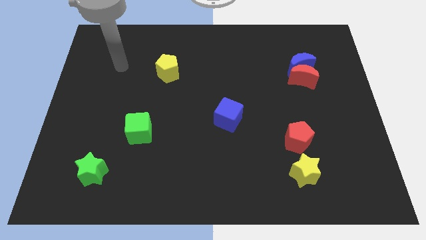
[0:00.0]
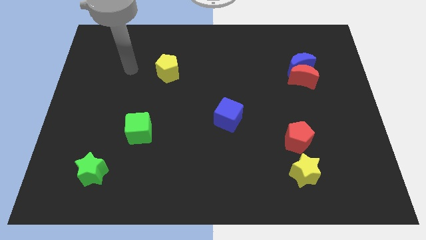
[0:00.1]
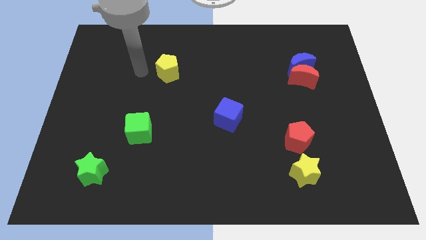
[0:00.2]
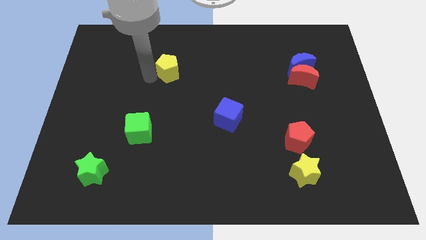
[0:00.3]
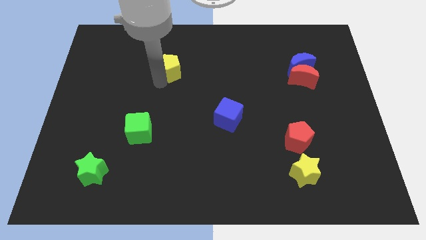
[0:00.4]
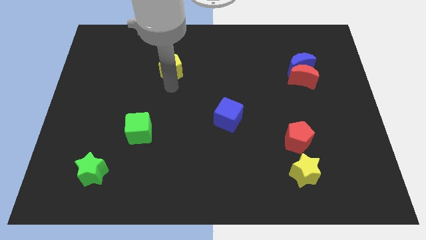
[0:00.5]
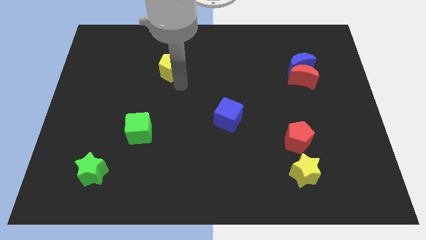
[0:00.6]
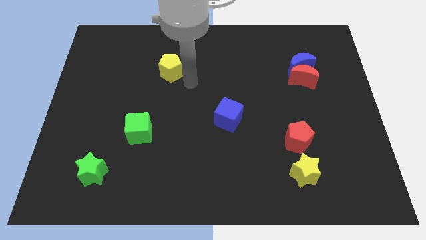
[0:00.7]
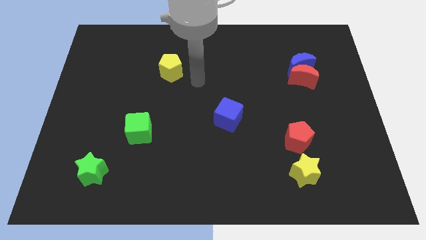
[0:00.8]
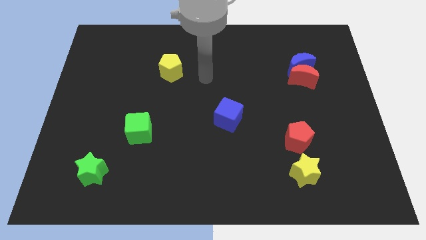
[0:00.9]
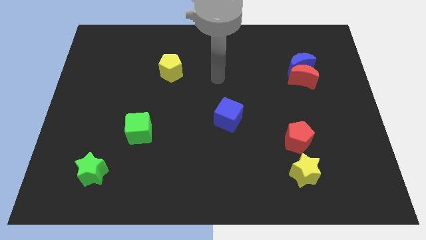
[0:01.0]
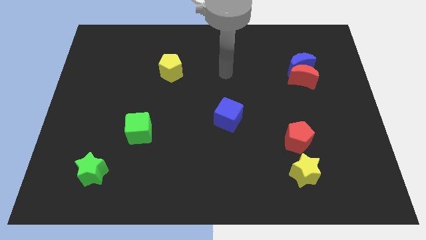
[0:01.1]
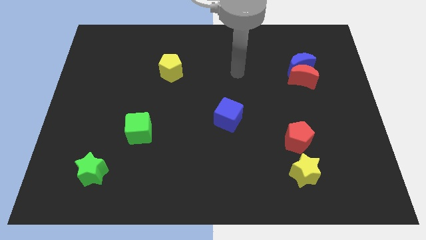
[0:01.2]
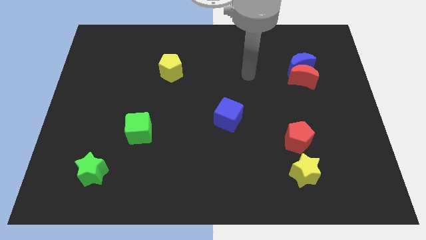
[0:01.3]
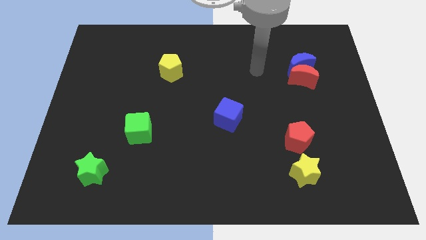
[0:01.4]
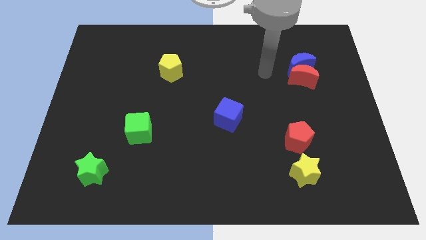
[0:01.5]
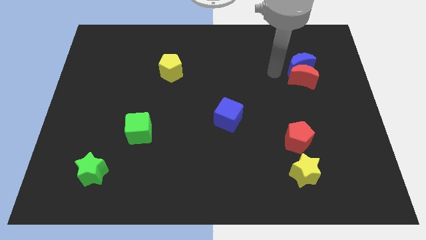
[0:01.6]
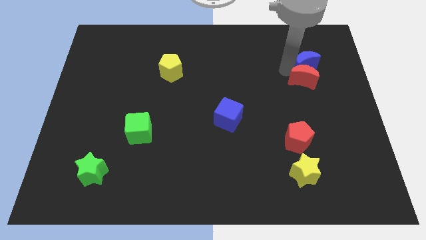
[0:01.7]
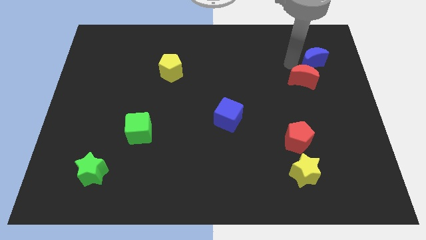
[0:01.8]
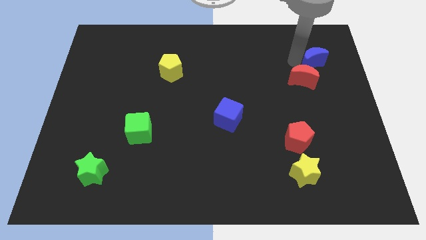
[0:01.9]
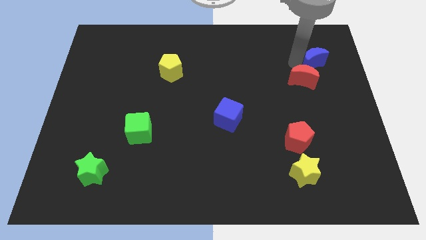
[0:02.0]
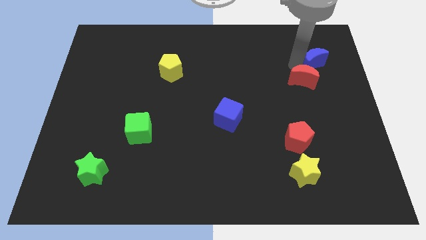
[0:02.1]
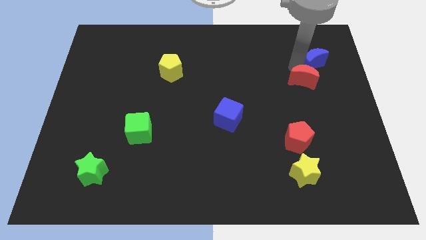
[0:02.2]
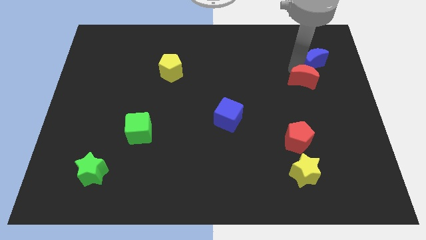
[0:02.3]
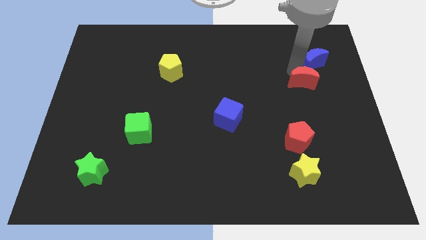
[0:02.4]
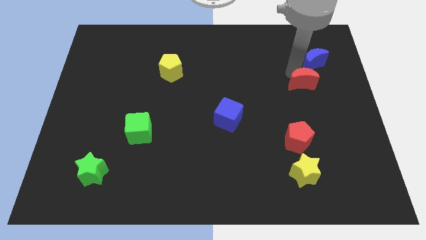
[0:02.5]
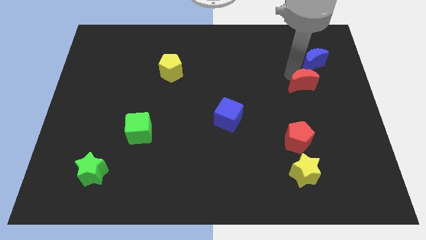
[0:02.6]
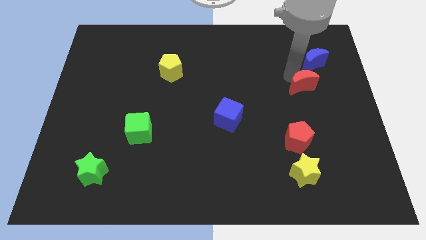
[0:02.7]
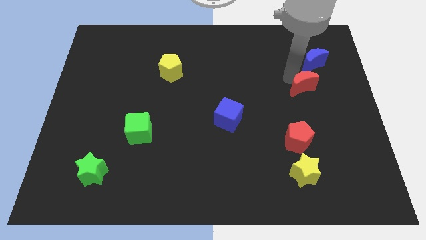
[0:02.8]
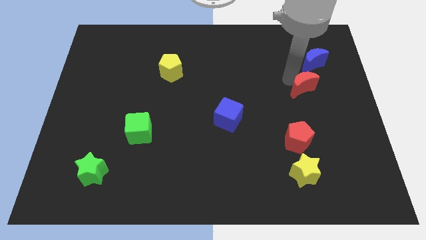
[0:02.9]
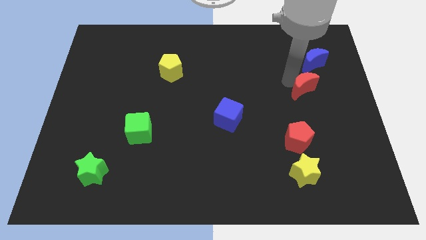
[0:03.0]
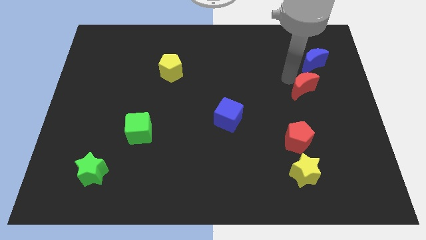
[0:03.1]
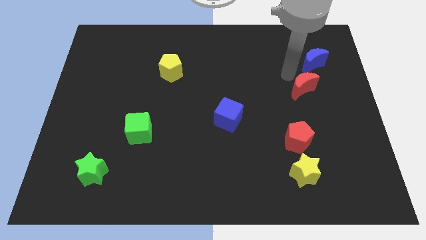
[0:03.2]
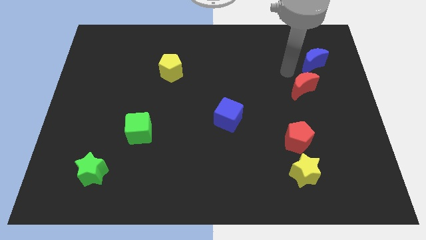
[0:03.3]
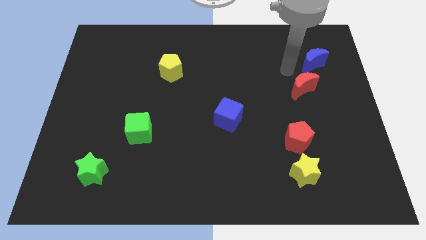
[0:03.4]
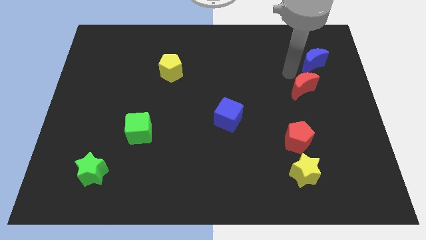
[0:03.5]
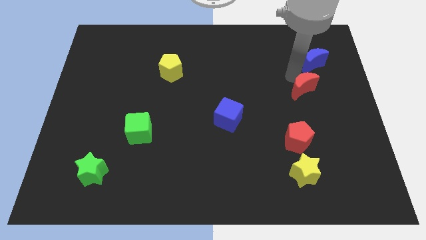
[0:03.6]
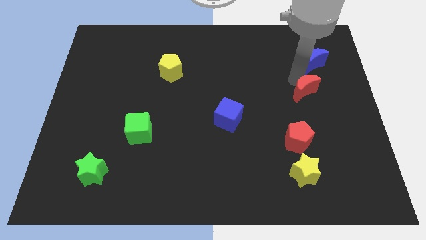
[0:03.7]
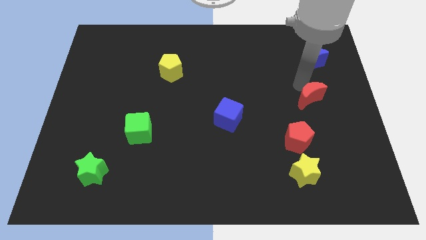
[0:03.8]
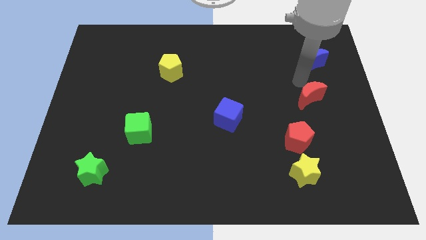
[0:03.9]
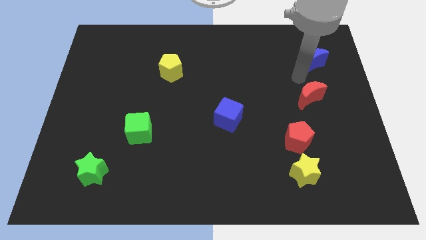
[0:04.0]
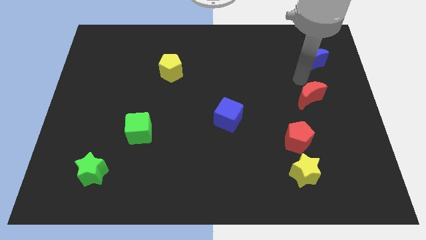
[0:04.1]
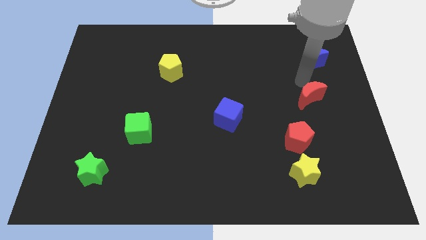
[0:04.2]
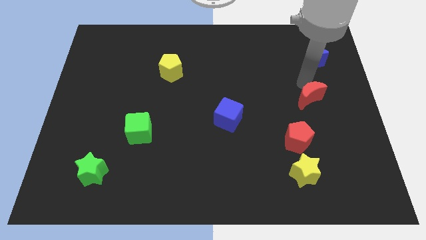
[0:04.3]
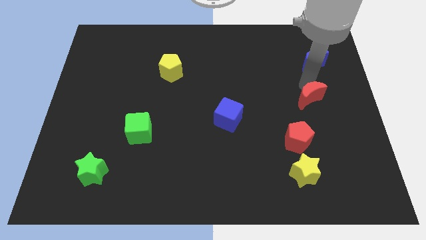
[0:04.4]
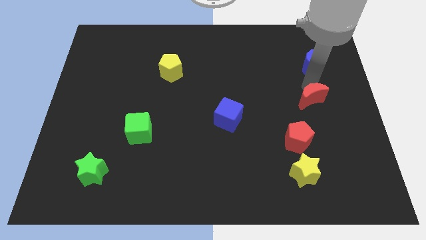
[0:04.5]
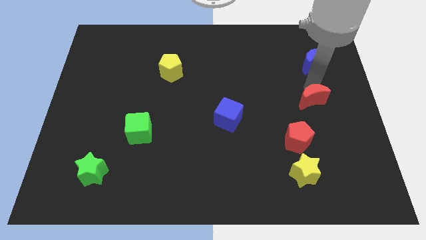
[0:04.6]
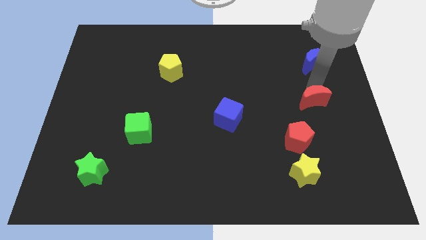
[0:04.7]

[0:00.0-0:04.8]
slide the red moon down a little

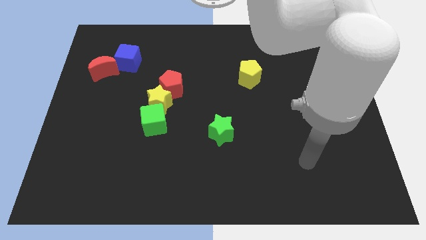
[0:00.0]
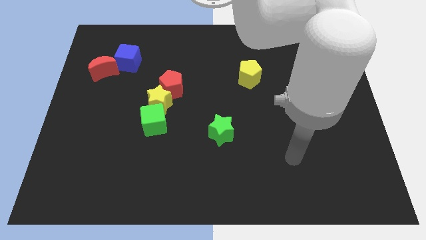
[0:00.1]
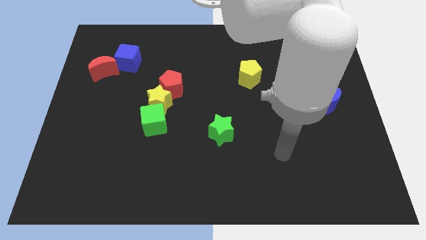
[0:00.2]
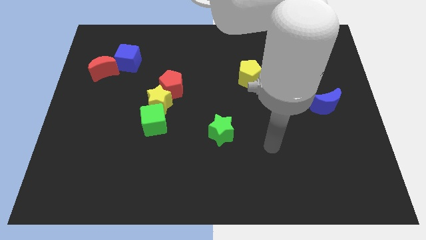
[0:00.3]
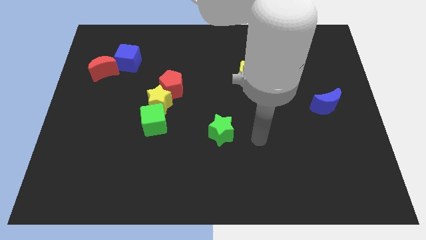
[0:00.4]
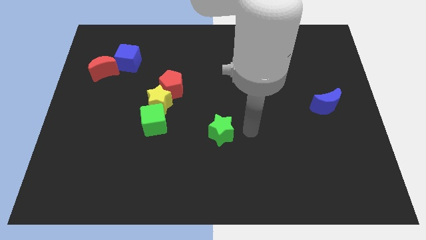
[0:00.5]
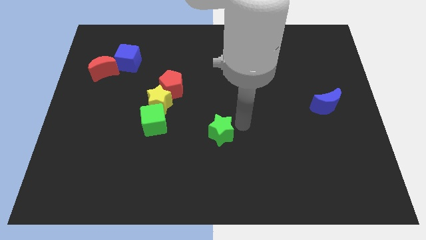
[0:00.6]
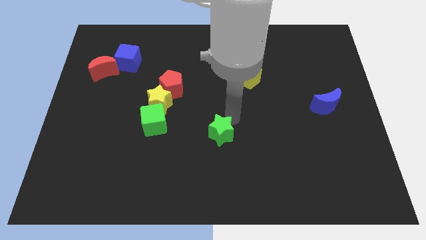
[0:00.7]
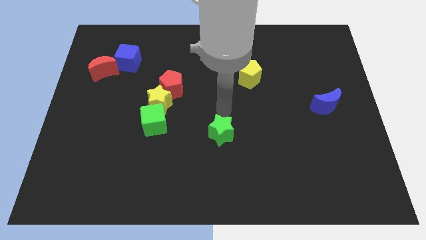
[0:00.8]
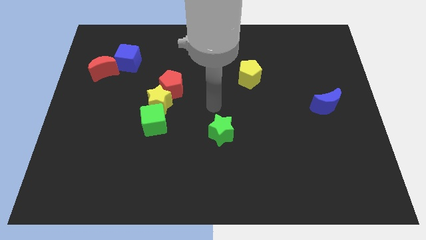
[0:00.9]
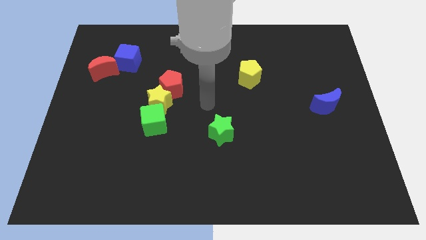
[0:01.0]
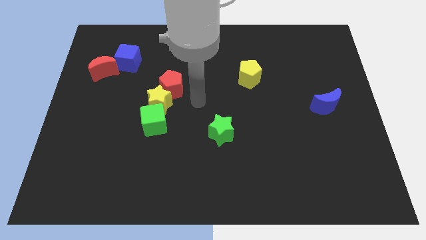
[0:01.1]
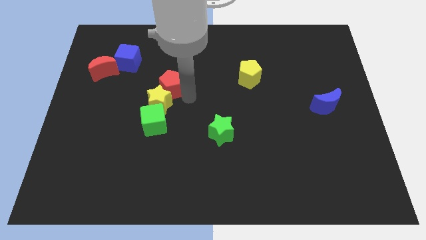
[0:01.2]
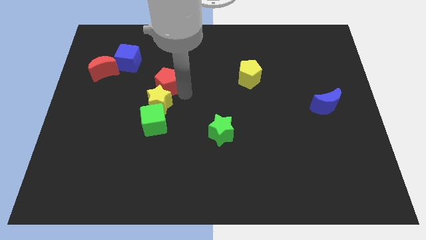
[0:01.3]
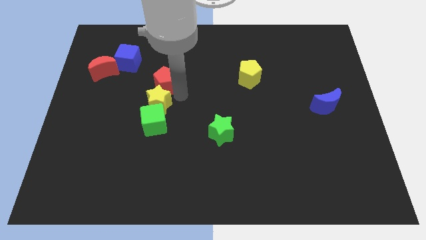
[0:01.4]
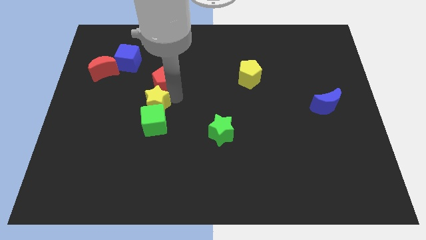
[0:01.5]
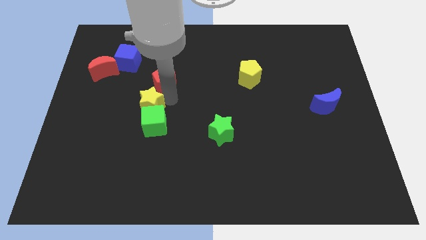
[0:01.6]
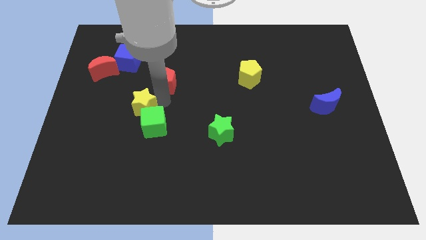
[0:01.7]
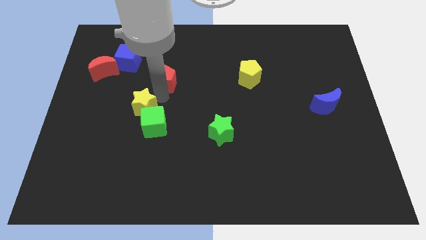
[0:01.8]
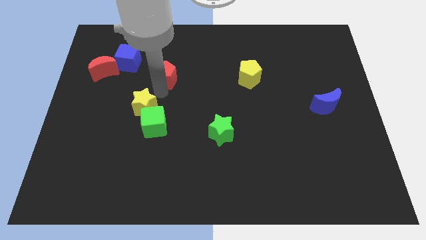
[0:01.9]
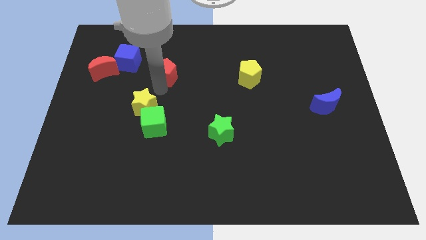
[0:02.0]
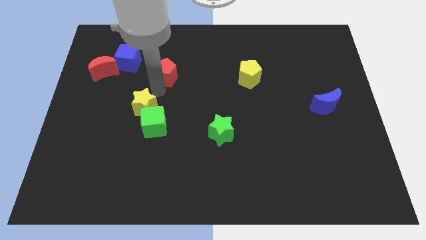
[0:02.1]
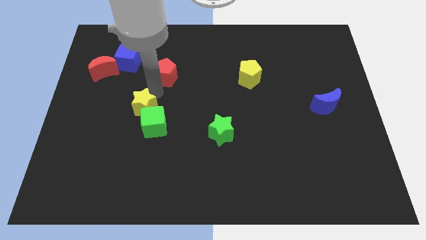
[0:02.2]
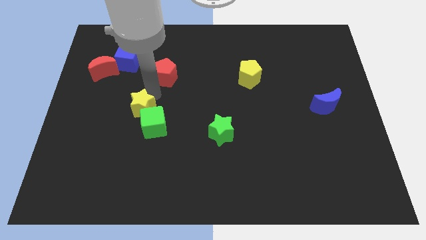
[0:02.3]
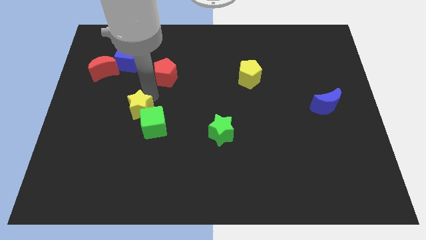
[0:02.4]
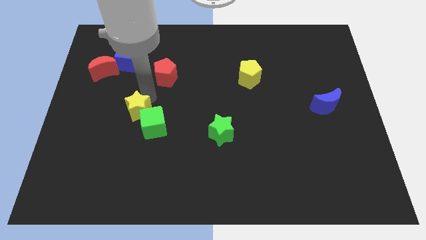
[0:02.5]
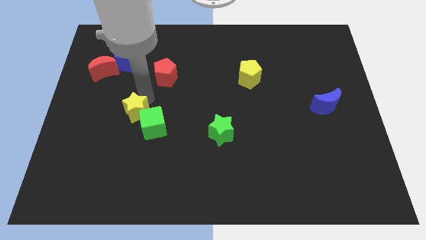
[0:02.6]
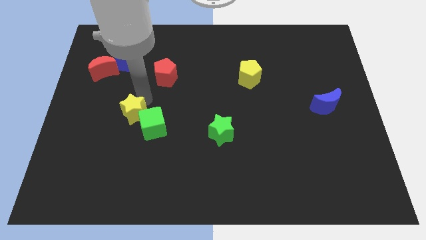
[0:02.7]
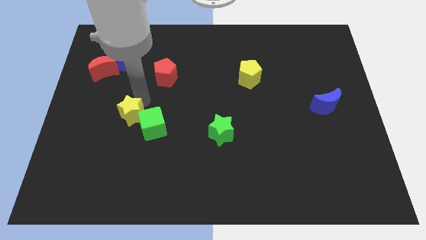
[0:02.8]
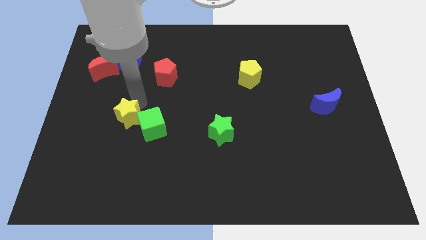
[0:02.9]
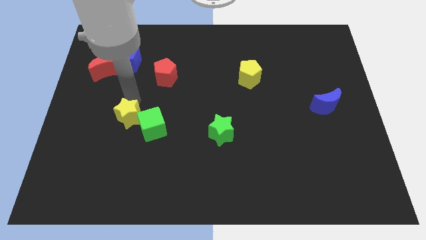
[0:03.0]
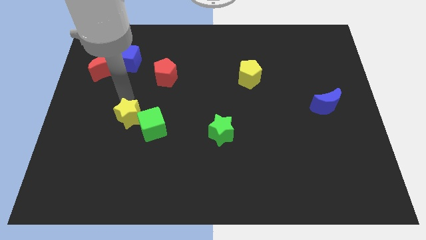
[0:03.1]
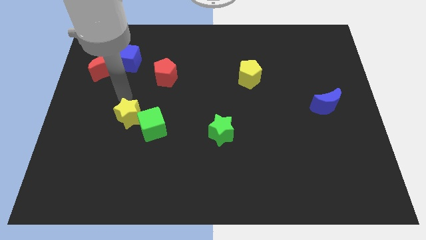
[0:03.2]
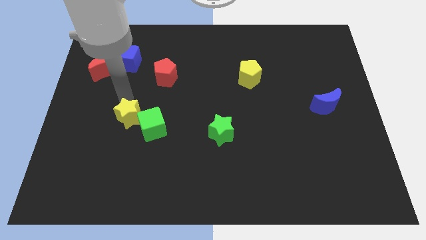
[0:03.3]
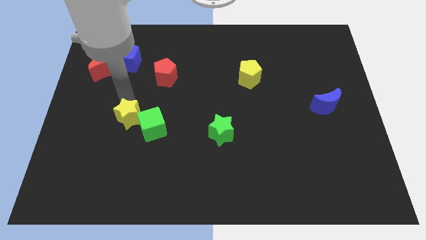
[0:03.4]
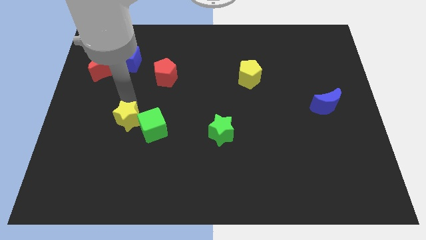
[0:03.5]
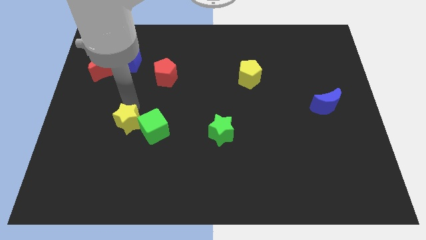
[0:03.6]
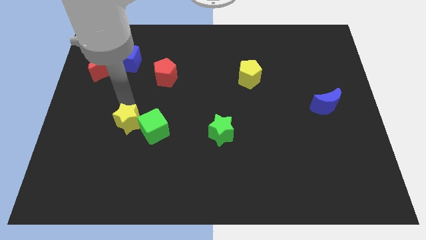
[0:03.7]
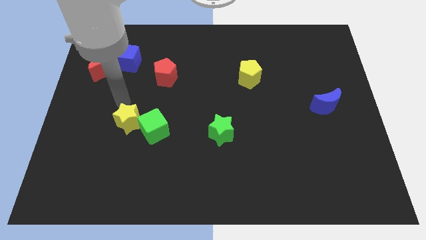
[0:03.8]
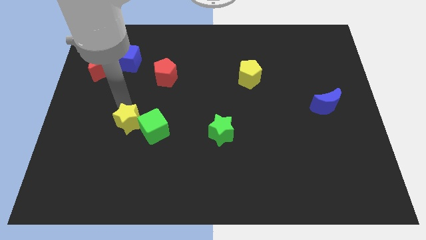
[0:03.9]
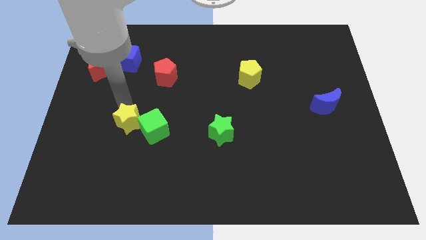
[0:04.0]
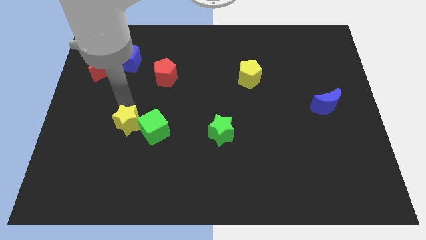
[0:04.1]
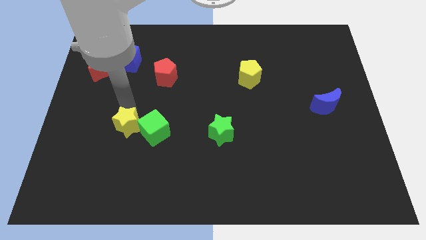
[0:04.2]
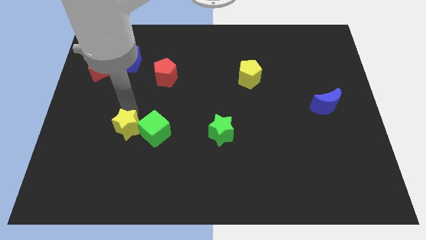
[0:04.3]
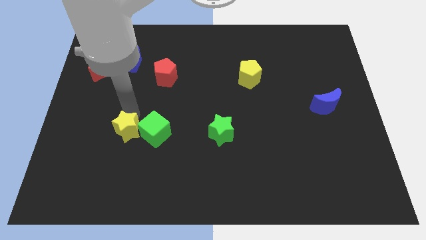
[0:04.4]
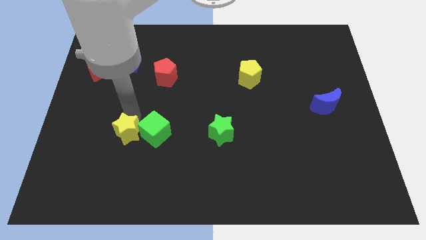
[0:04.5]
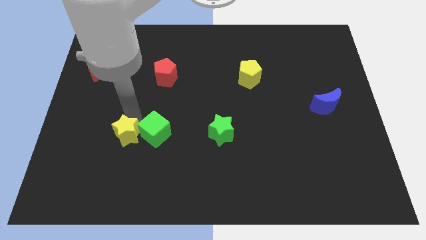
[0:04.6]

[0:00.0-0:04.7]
move the yellow star down a little bit
